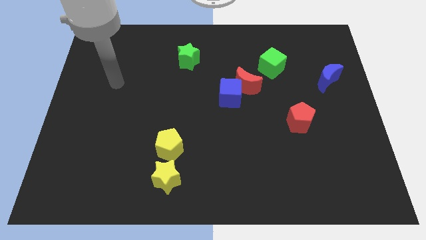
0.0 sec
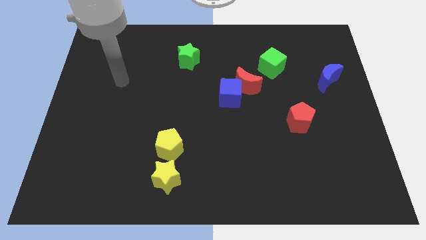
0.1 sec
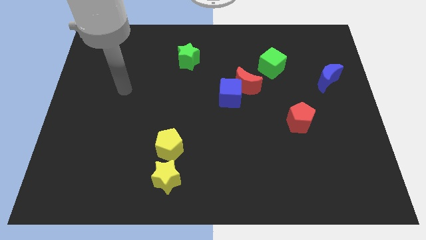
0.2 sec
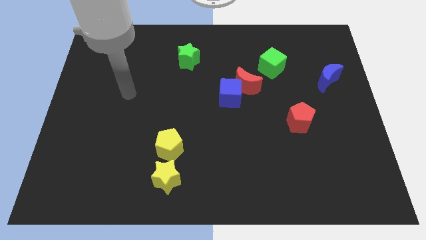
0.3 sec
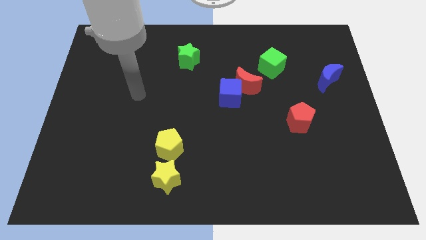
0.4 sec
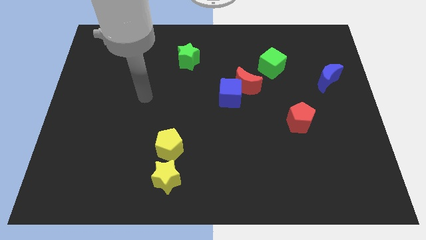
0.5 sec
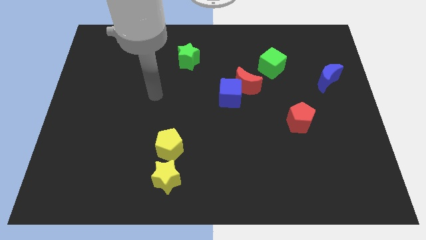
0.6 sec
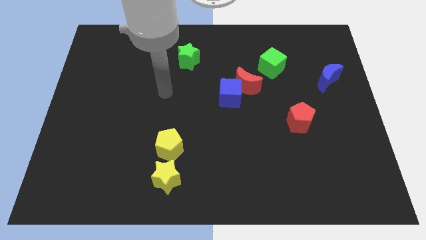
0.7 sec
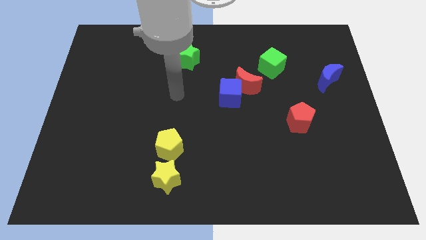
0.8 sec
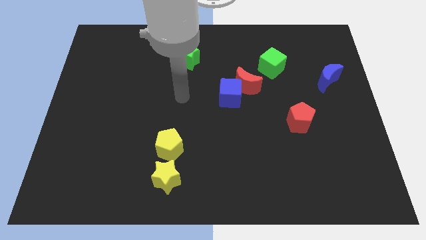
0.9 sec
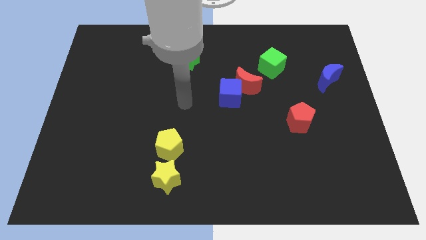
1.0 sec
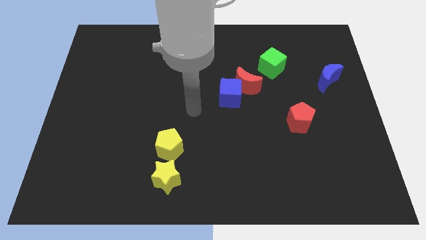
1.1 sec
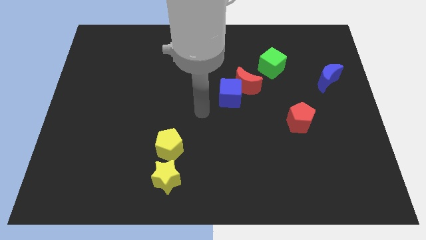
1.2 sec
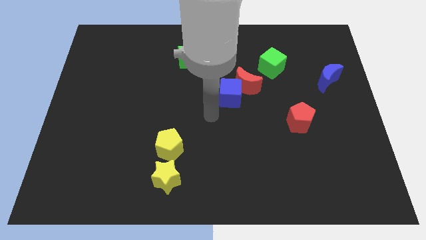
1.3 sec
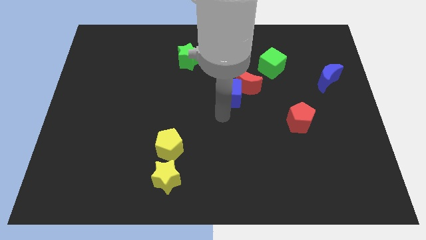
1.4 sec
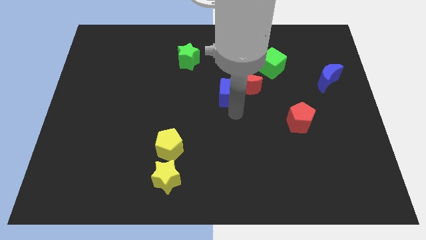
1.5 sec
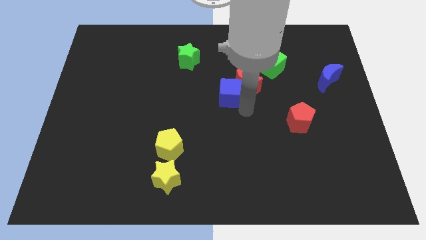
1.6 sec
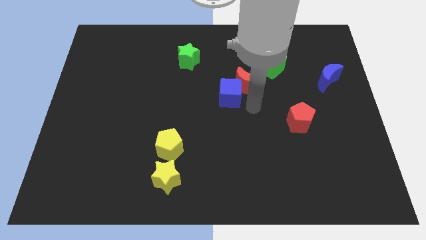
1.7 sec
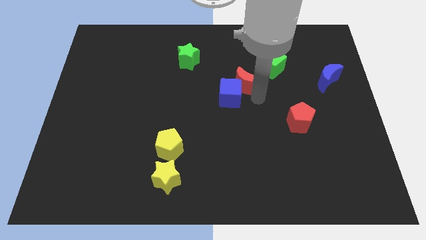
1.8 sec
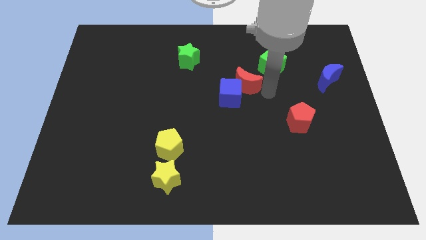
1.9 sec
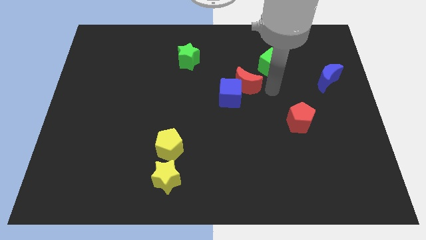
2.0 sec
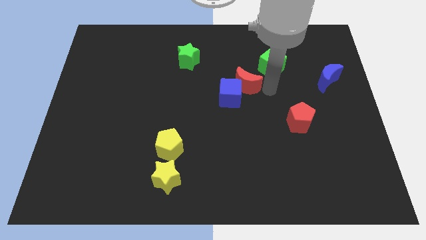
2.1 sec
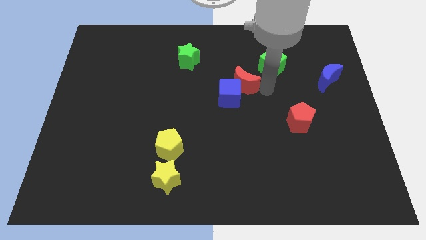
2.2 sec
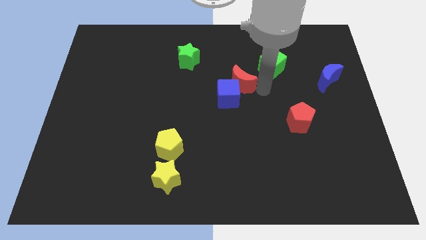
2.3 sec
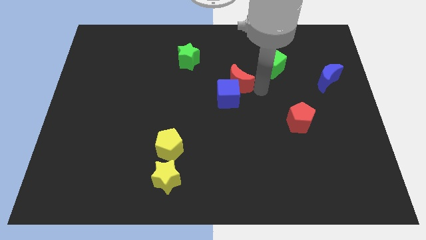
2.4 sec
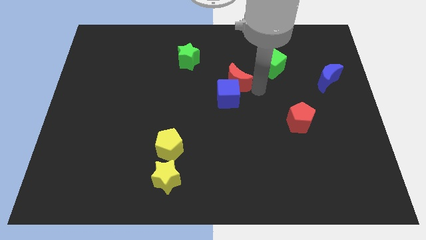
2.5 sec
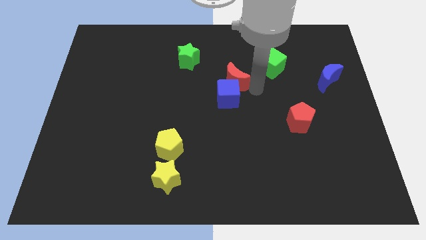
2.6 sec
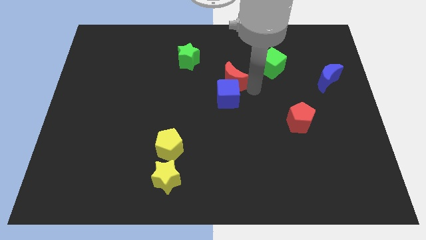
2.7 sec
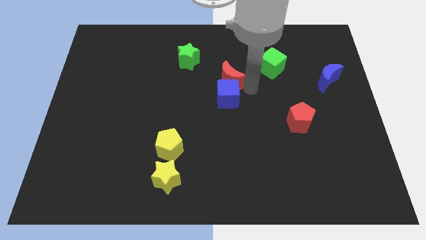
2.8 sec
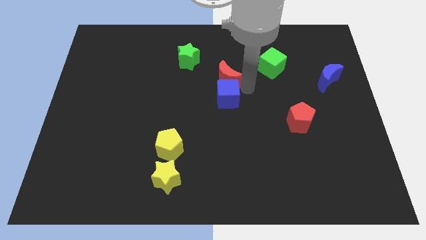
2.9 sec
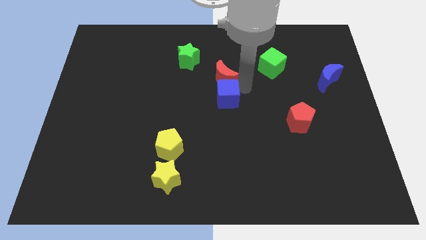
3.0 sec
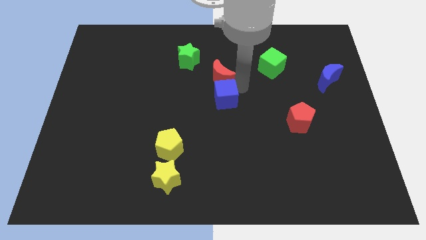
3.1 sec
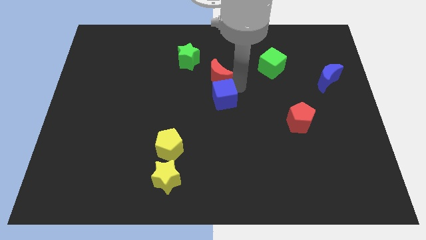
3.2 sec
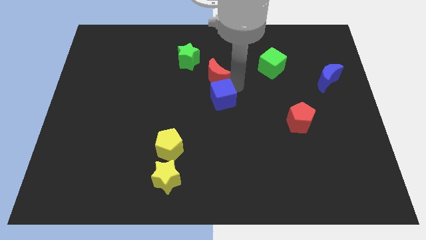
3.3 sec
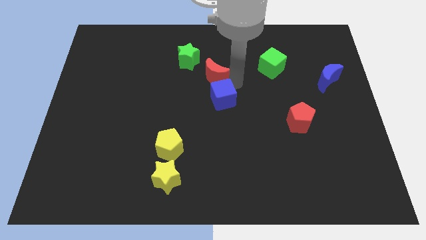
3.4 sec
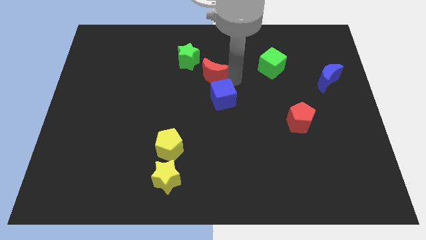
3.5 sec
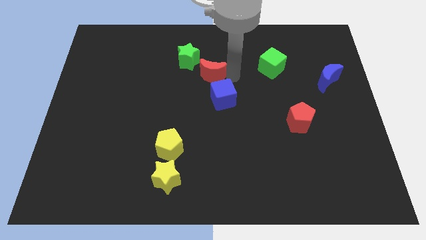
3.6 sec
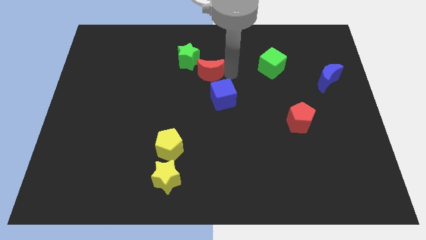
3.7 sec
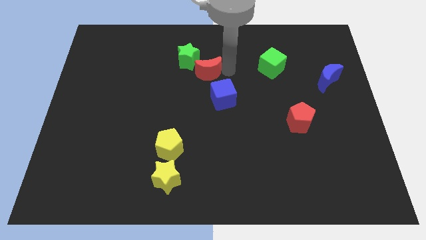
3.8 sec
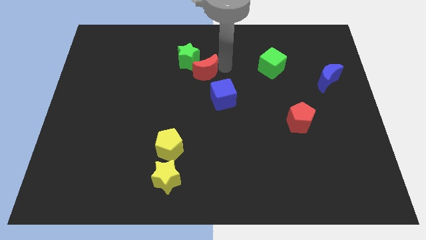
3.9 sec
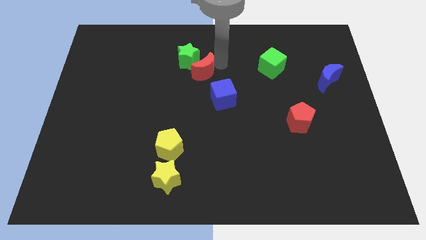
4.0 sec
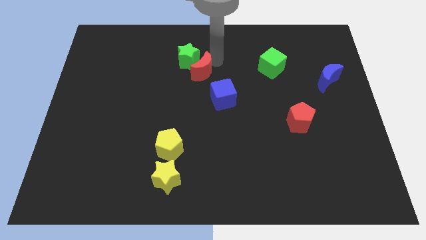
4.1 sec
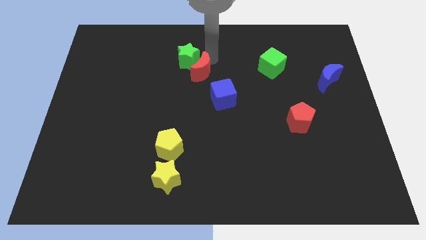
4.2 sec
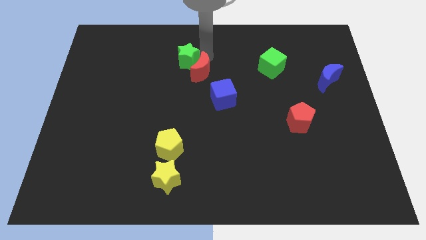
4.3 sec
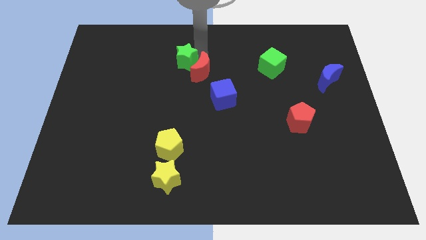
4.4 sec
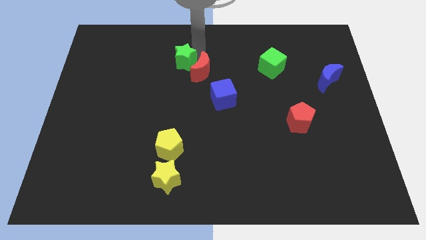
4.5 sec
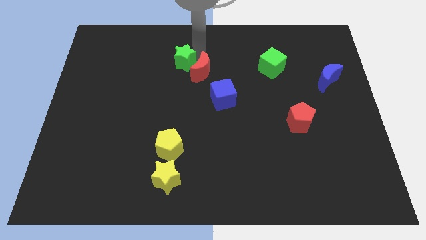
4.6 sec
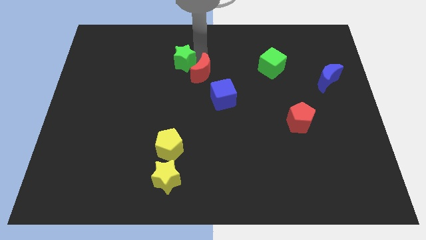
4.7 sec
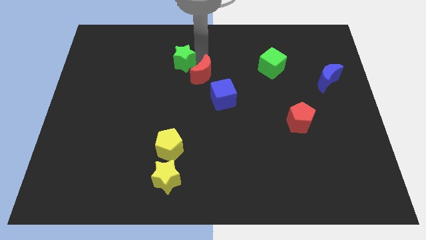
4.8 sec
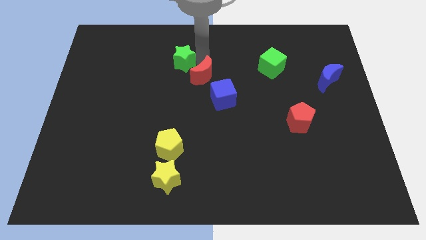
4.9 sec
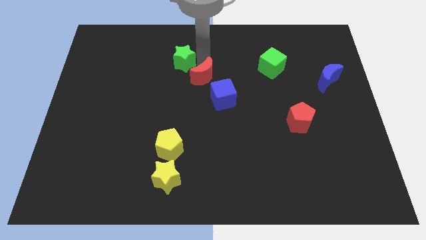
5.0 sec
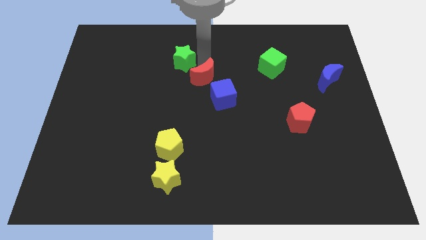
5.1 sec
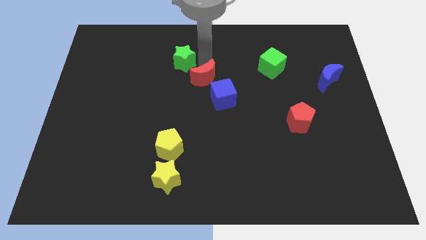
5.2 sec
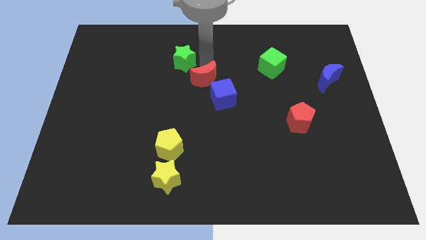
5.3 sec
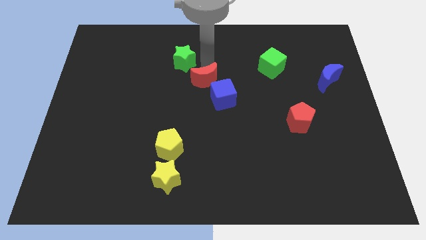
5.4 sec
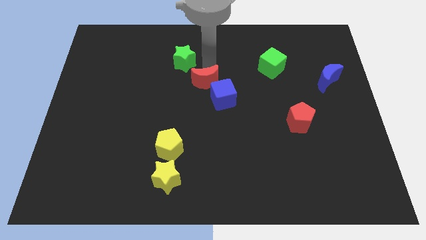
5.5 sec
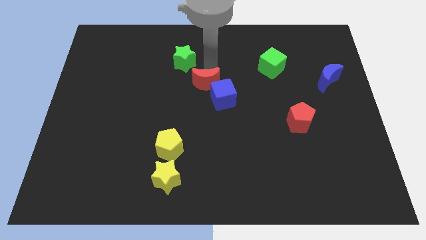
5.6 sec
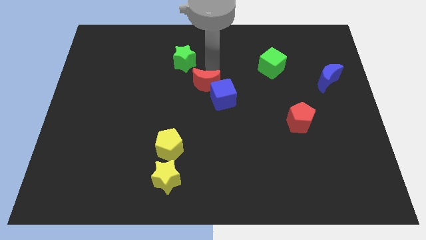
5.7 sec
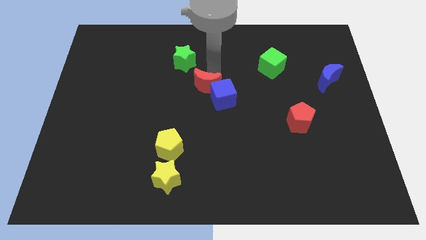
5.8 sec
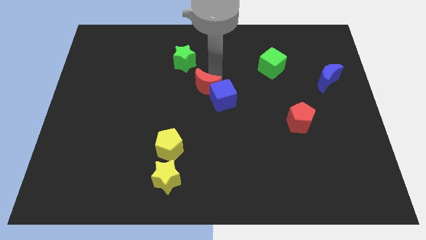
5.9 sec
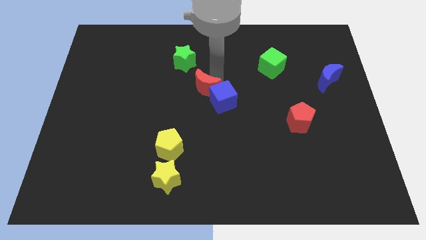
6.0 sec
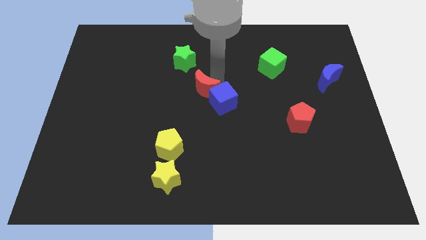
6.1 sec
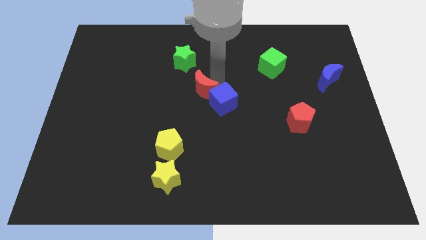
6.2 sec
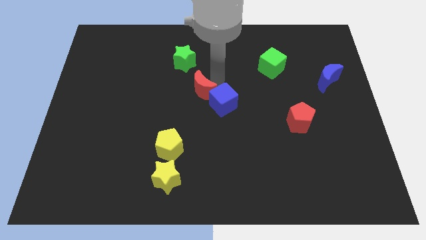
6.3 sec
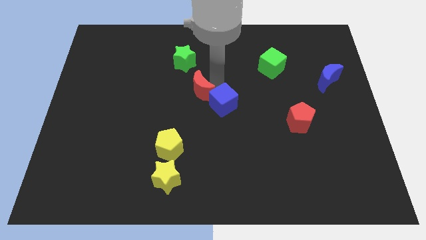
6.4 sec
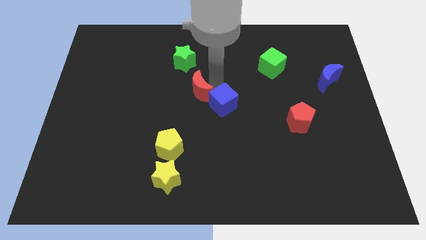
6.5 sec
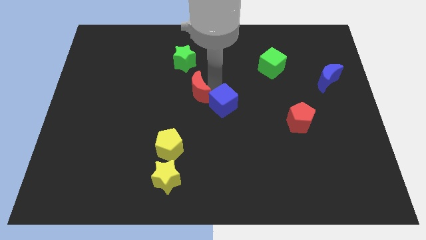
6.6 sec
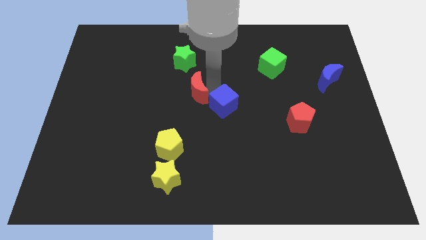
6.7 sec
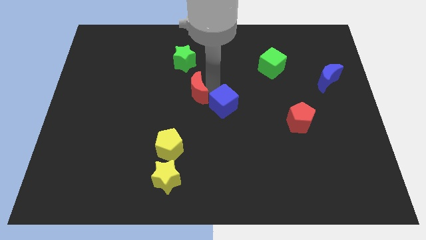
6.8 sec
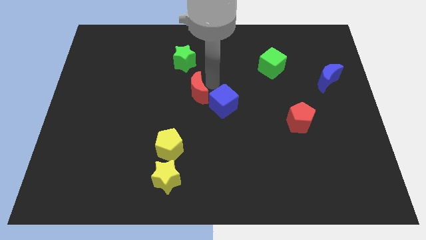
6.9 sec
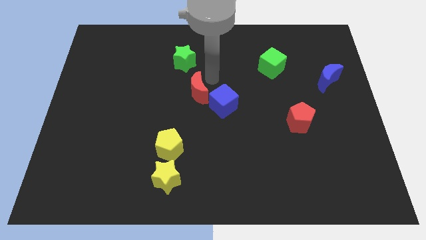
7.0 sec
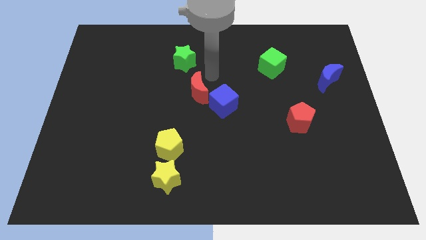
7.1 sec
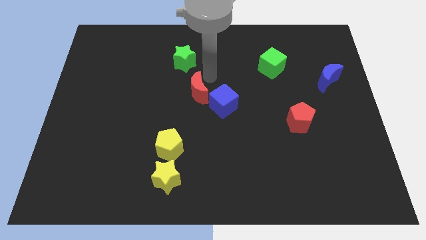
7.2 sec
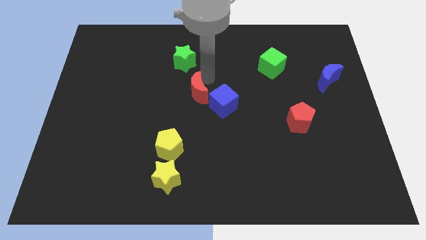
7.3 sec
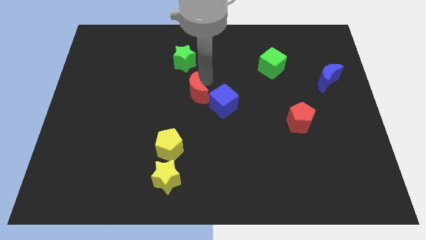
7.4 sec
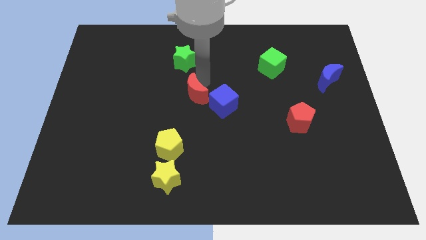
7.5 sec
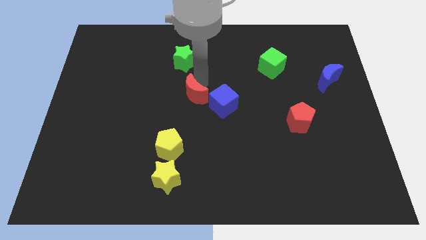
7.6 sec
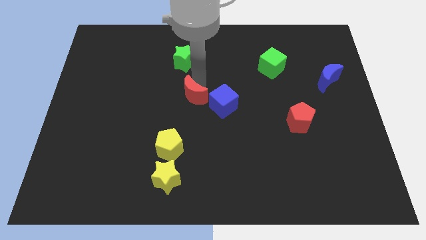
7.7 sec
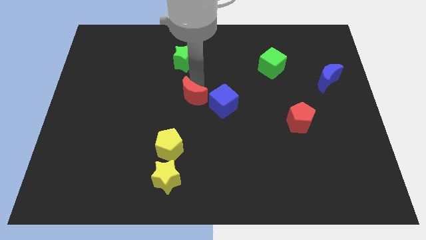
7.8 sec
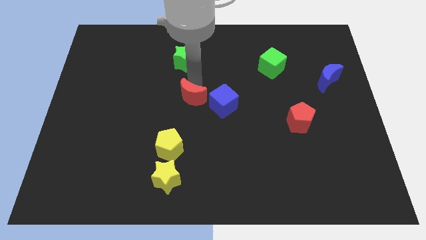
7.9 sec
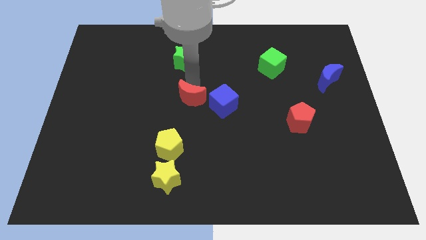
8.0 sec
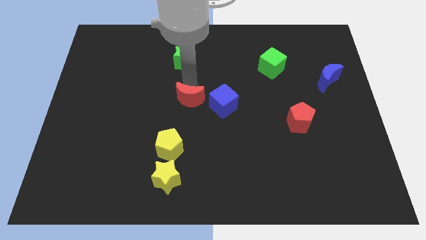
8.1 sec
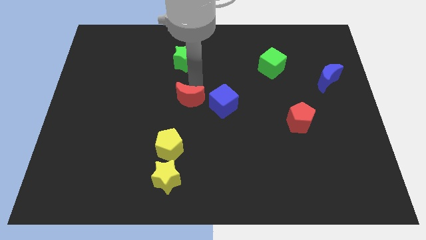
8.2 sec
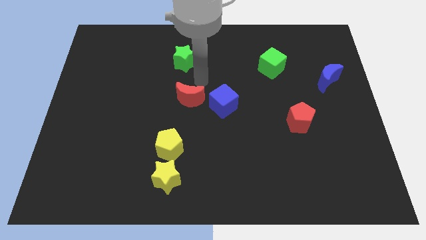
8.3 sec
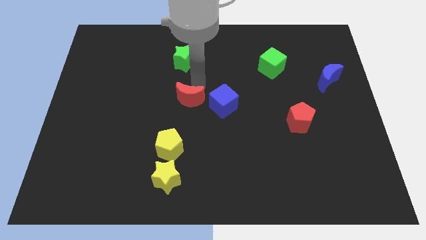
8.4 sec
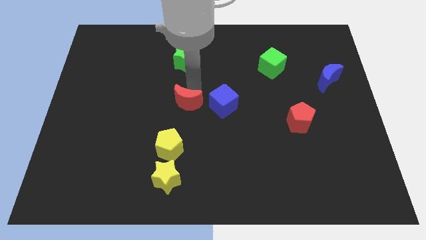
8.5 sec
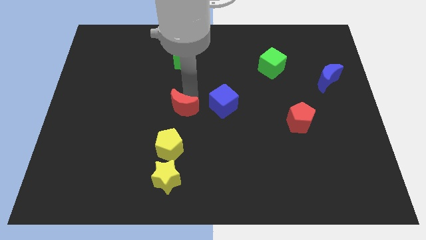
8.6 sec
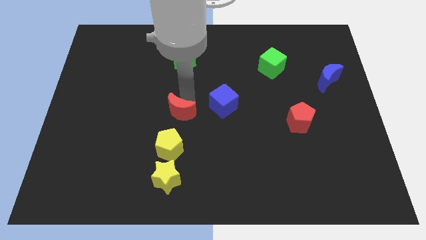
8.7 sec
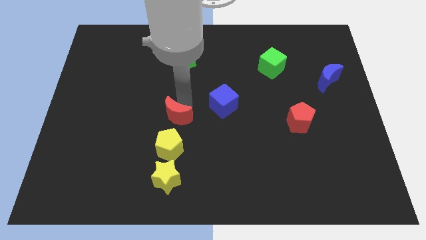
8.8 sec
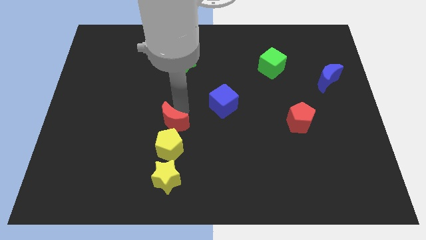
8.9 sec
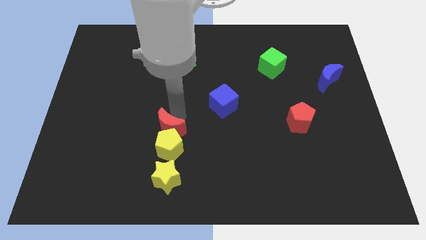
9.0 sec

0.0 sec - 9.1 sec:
slide the red moon down and to the left
